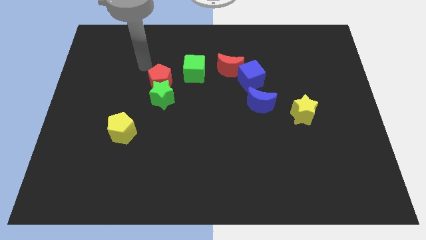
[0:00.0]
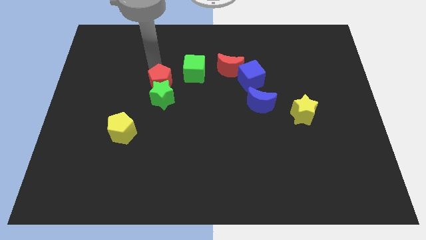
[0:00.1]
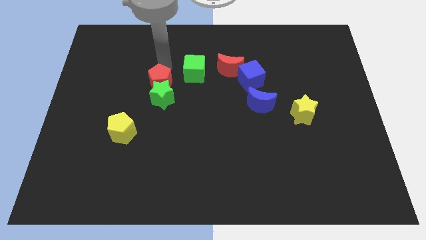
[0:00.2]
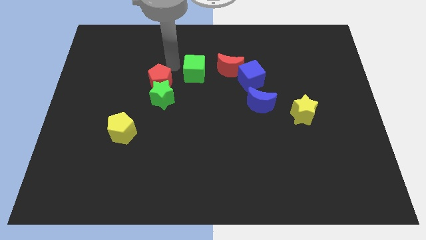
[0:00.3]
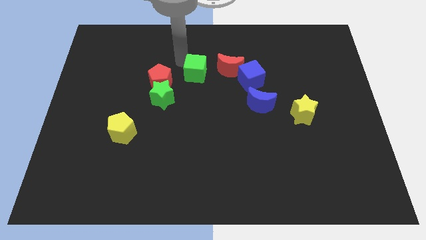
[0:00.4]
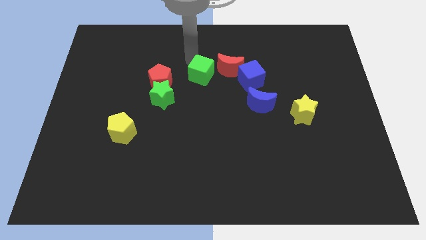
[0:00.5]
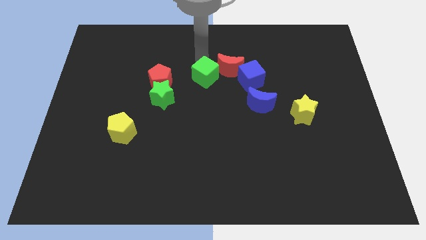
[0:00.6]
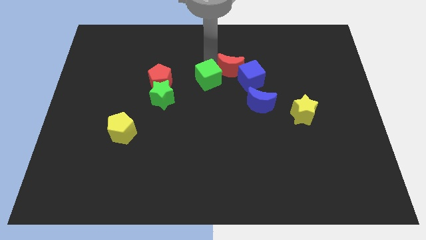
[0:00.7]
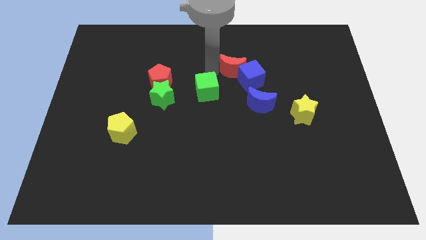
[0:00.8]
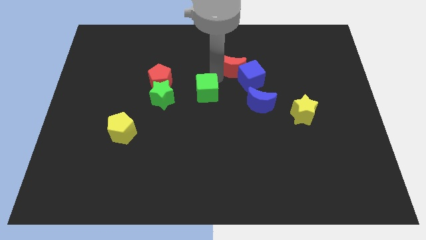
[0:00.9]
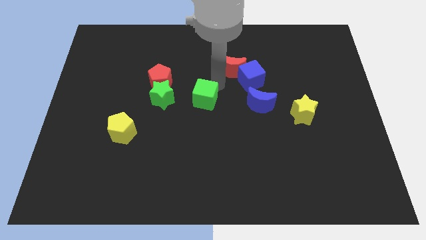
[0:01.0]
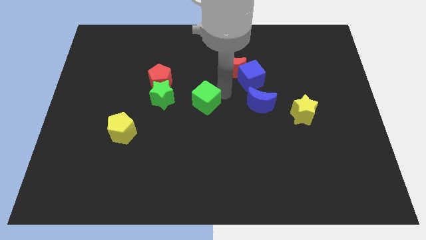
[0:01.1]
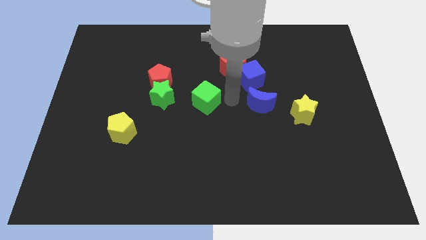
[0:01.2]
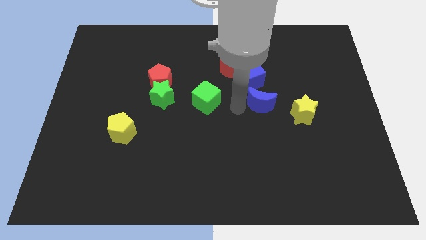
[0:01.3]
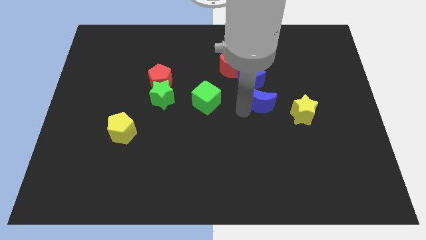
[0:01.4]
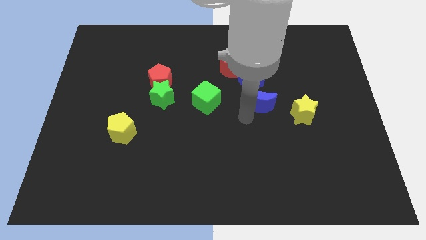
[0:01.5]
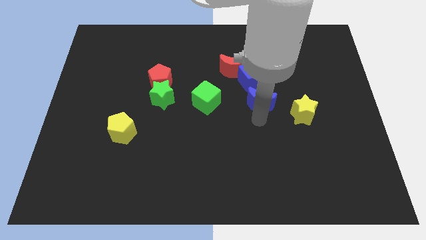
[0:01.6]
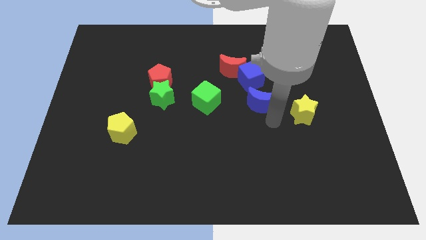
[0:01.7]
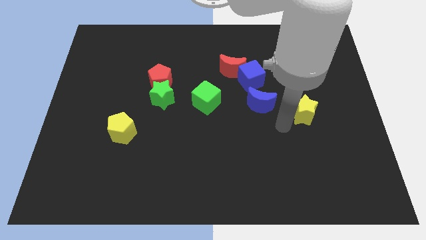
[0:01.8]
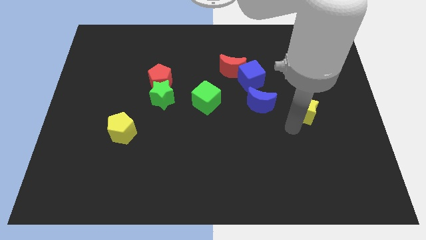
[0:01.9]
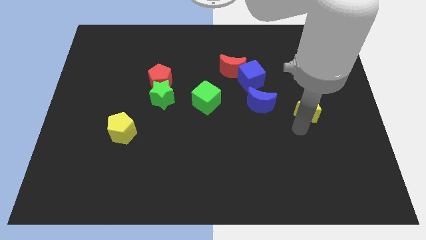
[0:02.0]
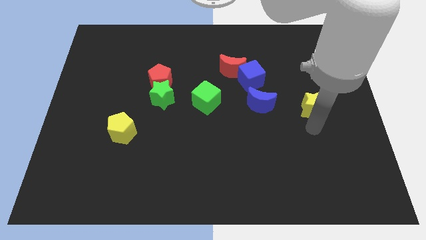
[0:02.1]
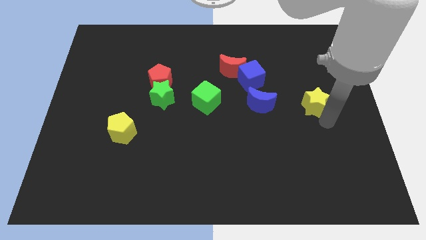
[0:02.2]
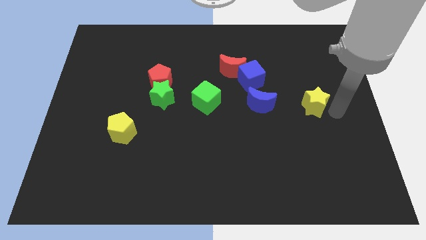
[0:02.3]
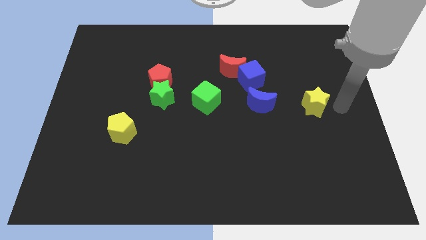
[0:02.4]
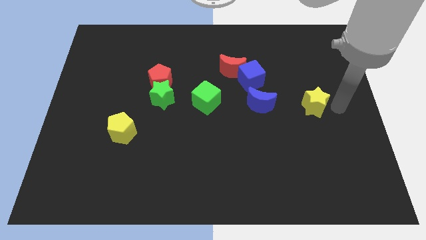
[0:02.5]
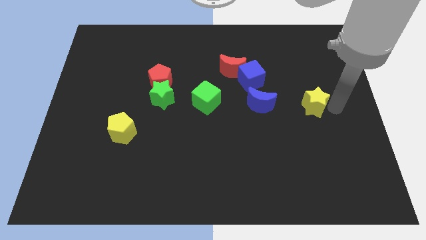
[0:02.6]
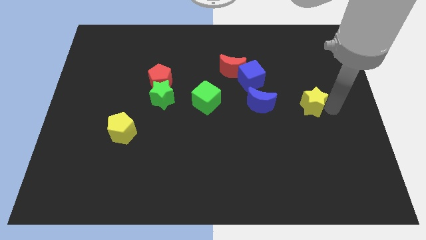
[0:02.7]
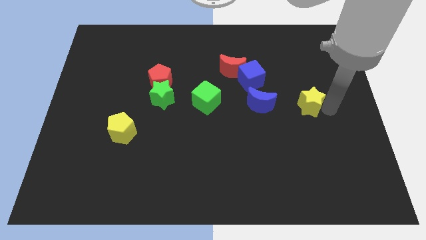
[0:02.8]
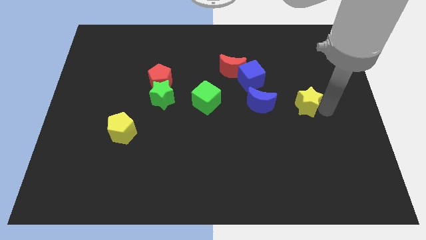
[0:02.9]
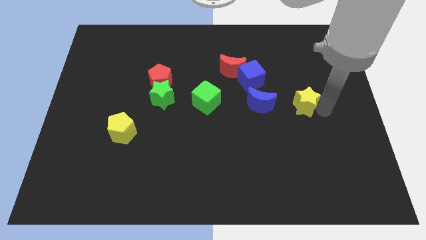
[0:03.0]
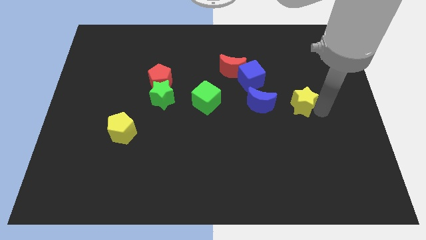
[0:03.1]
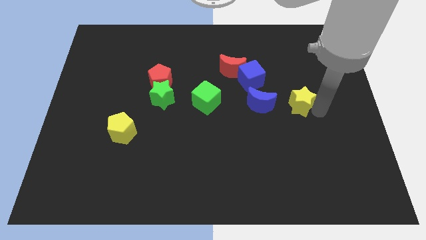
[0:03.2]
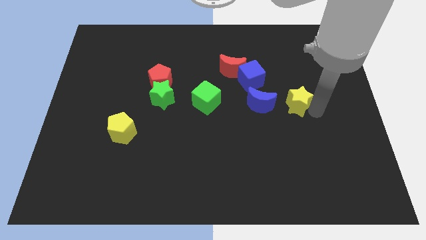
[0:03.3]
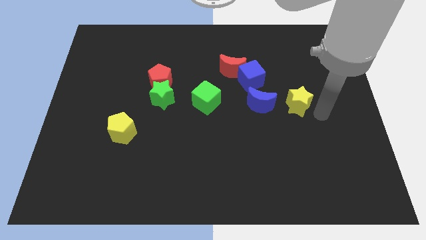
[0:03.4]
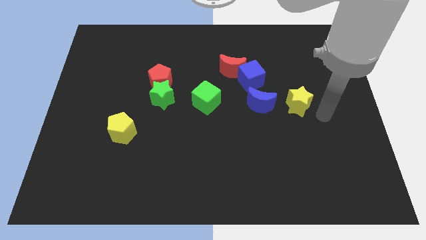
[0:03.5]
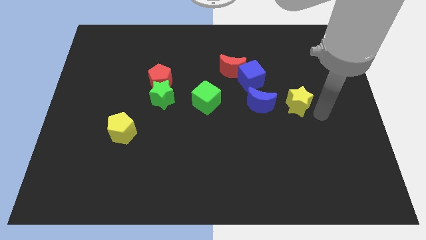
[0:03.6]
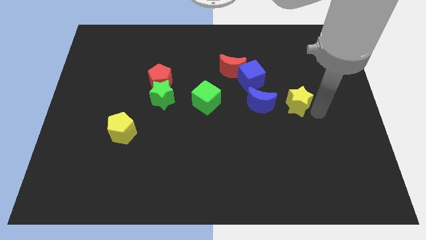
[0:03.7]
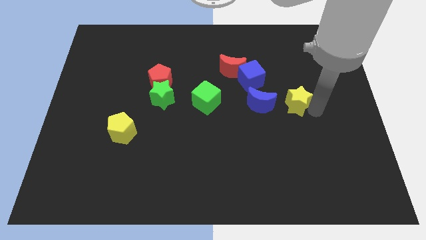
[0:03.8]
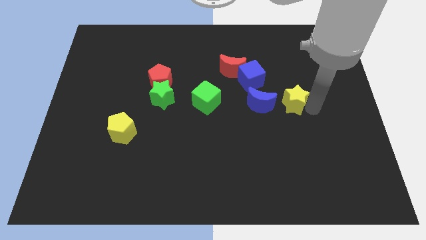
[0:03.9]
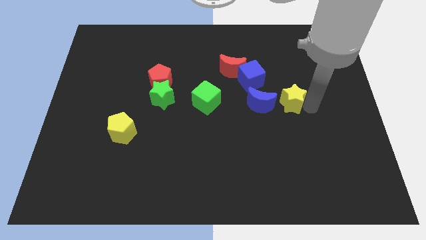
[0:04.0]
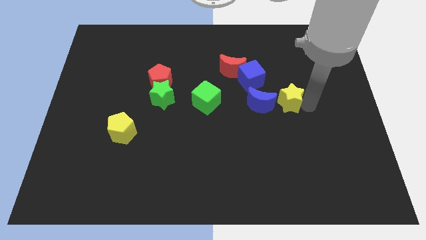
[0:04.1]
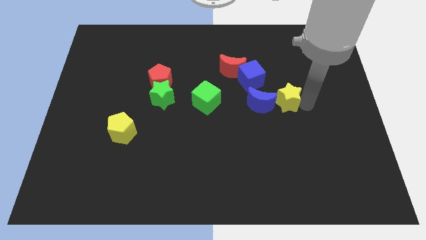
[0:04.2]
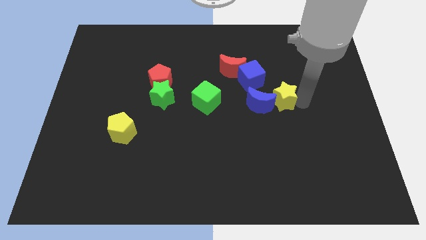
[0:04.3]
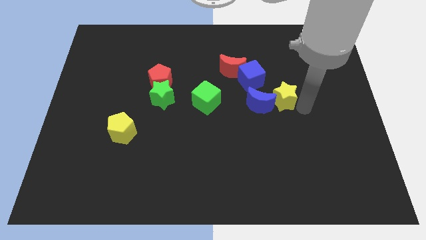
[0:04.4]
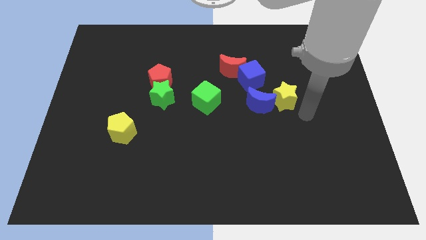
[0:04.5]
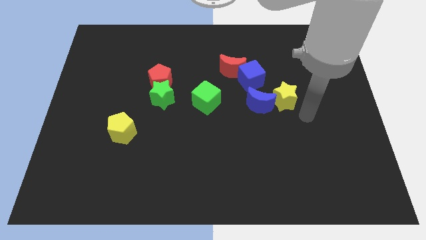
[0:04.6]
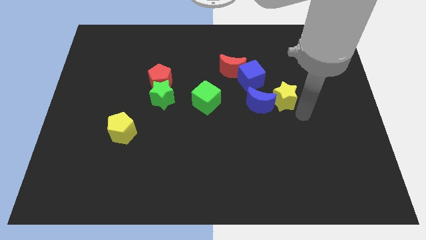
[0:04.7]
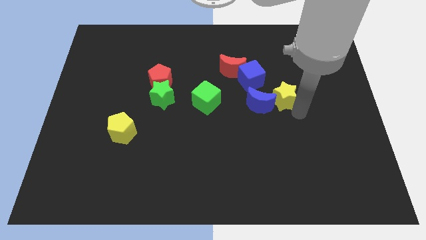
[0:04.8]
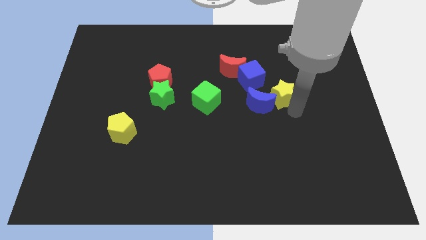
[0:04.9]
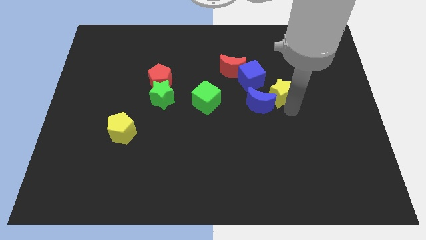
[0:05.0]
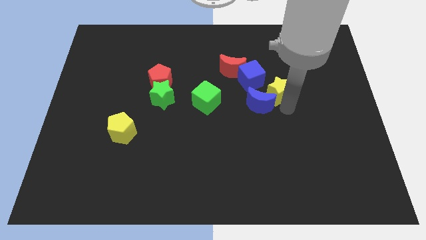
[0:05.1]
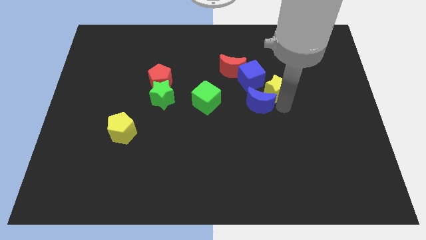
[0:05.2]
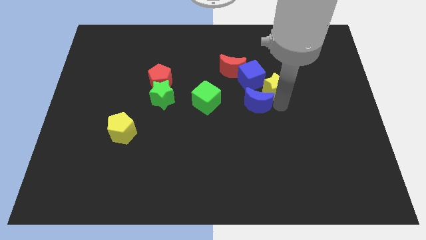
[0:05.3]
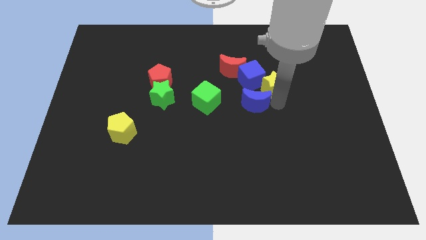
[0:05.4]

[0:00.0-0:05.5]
put the yellow star close to the blue cube

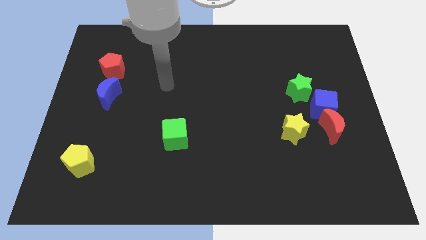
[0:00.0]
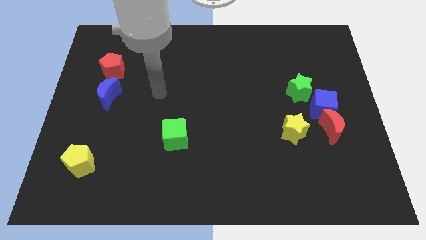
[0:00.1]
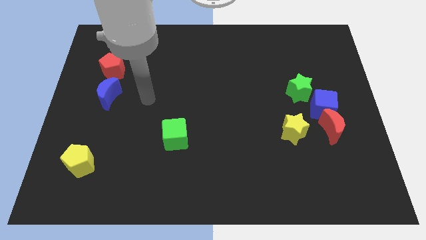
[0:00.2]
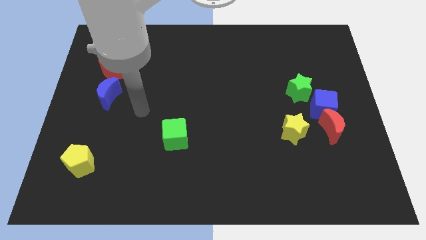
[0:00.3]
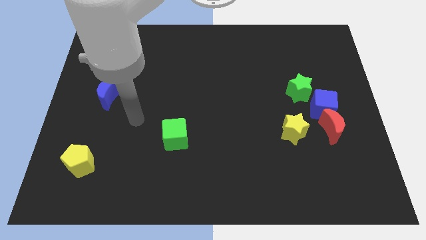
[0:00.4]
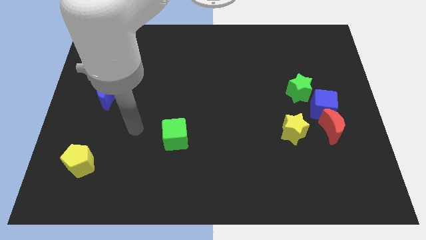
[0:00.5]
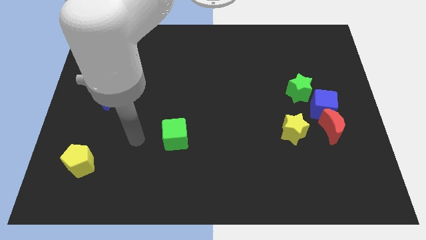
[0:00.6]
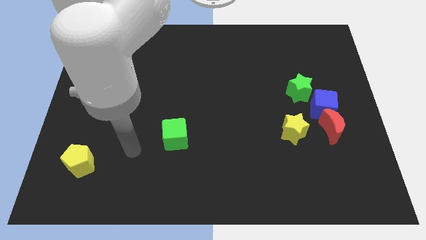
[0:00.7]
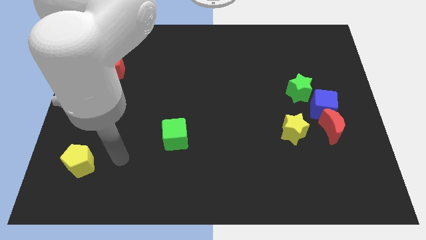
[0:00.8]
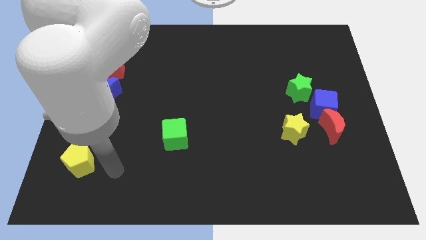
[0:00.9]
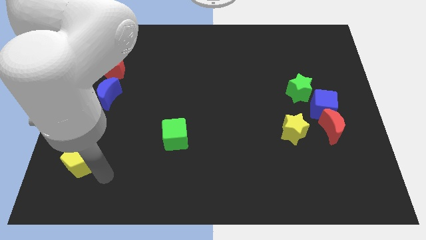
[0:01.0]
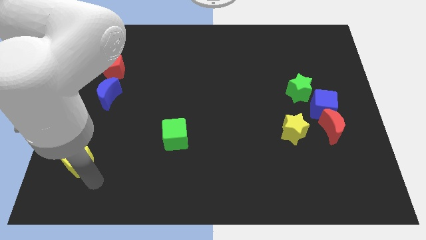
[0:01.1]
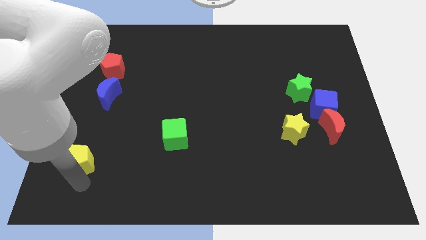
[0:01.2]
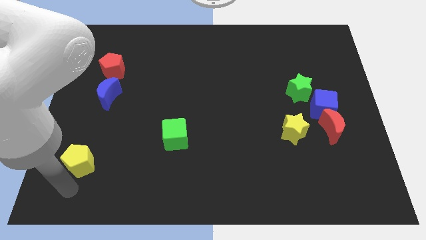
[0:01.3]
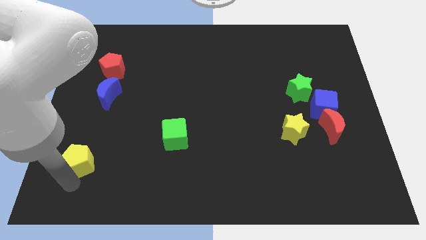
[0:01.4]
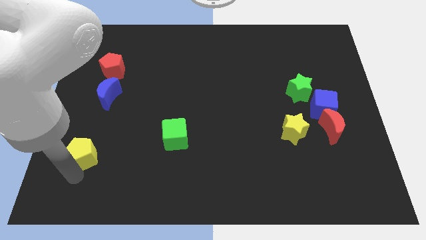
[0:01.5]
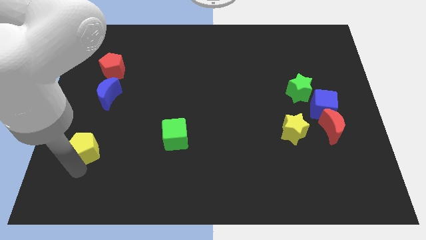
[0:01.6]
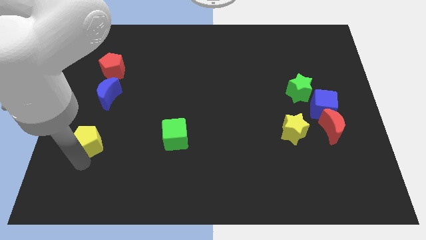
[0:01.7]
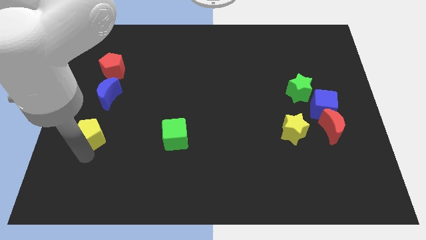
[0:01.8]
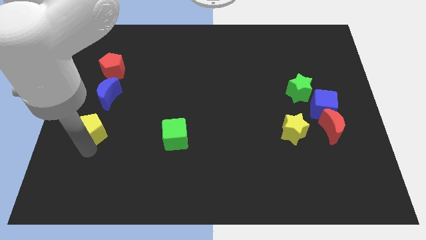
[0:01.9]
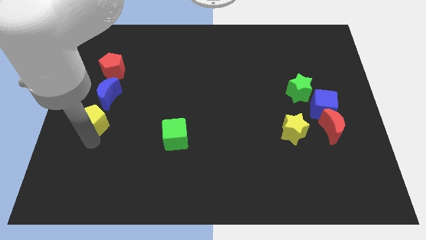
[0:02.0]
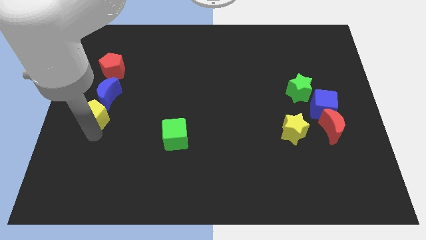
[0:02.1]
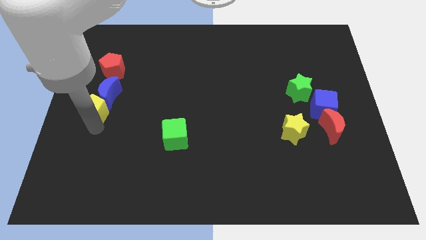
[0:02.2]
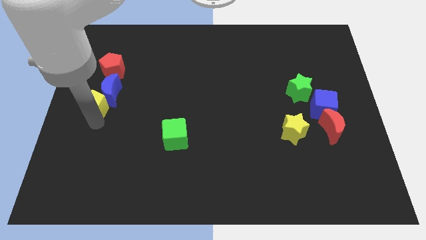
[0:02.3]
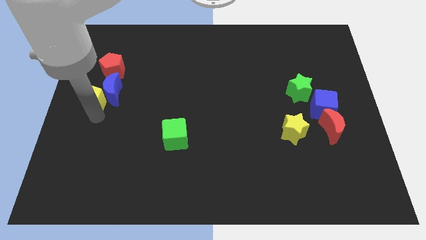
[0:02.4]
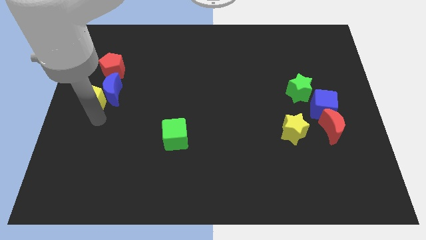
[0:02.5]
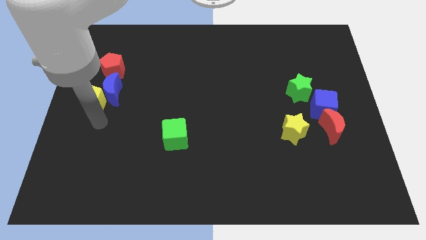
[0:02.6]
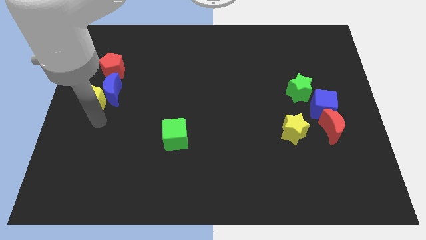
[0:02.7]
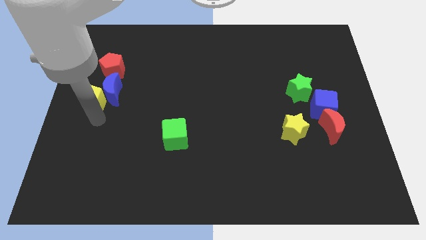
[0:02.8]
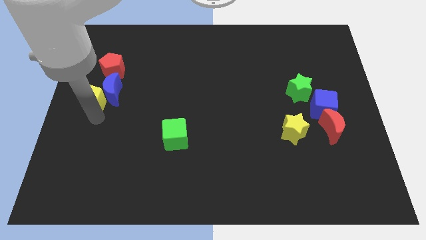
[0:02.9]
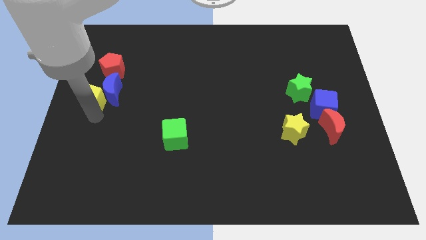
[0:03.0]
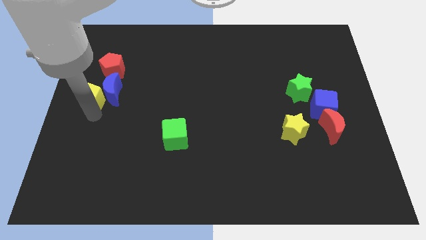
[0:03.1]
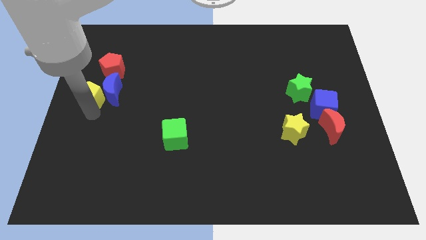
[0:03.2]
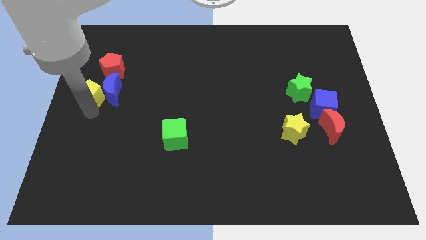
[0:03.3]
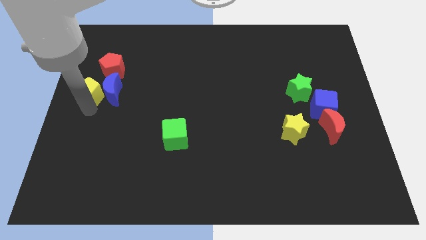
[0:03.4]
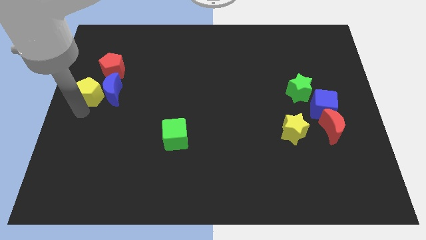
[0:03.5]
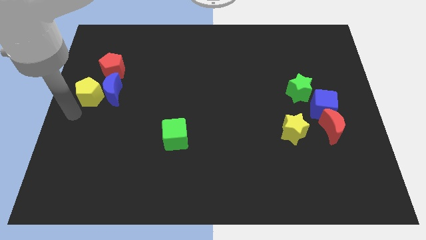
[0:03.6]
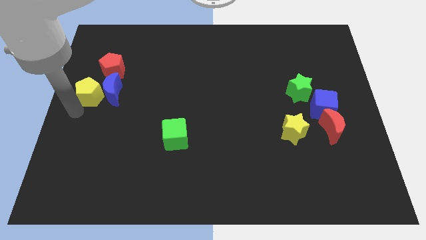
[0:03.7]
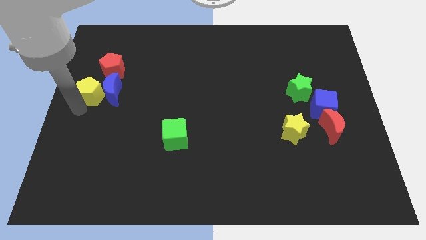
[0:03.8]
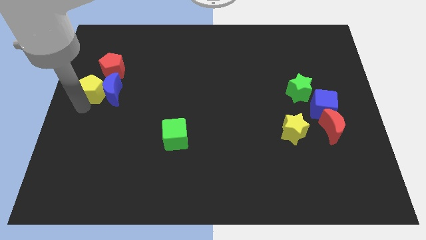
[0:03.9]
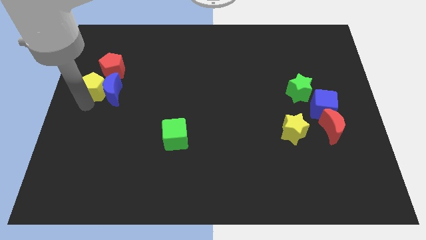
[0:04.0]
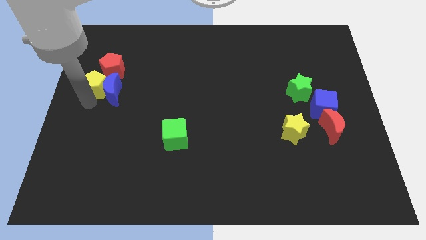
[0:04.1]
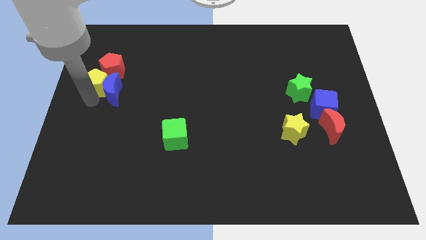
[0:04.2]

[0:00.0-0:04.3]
push the yellow pentagon next to the red pentagon
